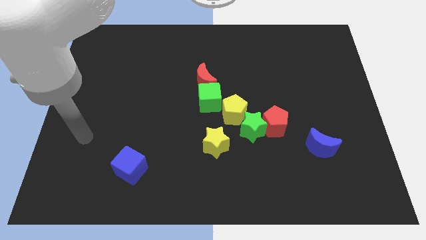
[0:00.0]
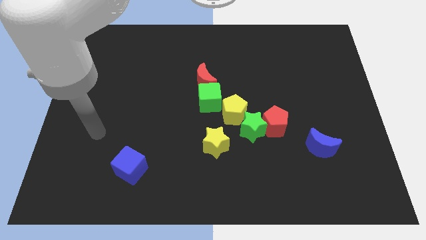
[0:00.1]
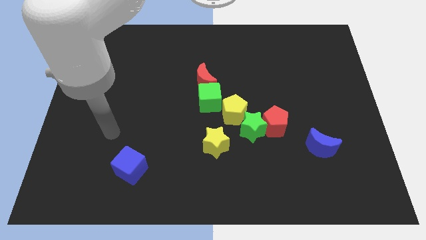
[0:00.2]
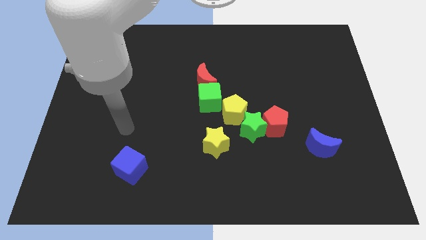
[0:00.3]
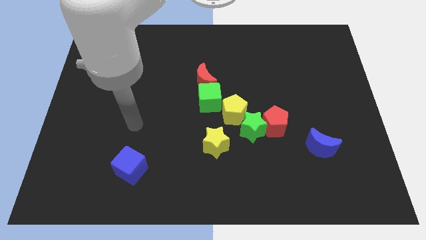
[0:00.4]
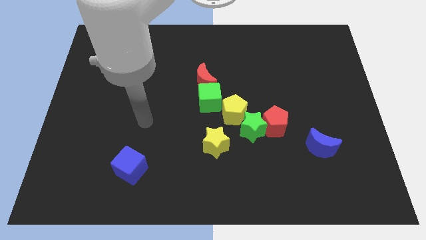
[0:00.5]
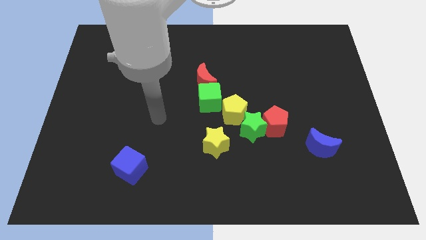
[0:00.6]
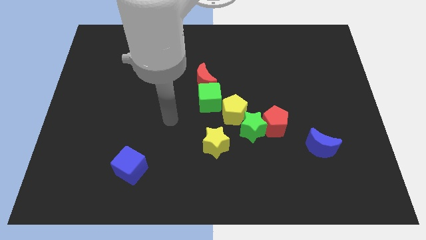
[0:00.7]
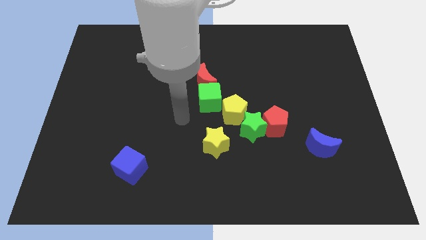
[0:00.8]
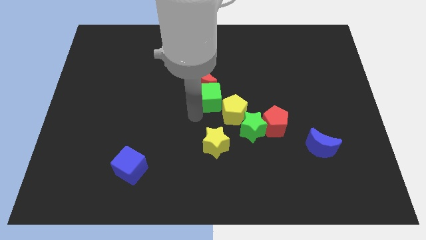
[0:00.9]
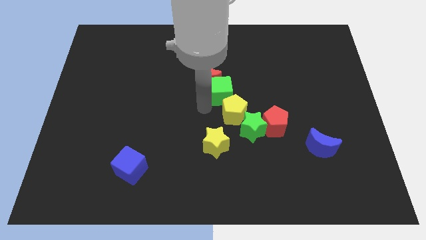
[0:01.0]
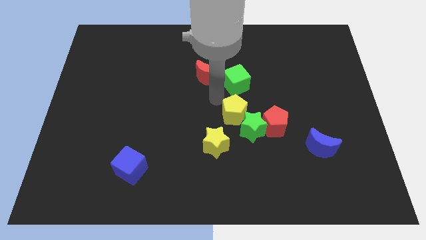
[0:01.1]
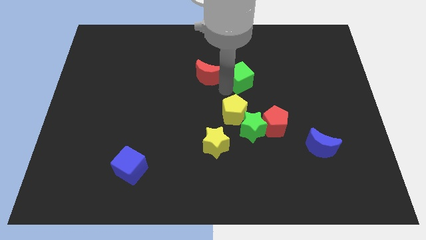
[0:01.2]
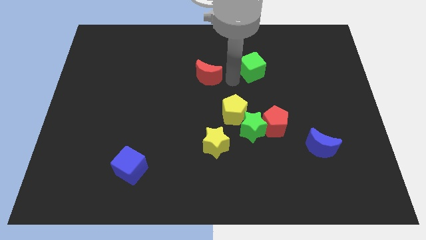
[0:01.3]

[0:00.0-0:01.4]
pull the red moon apart from the green cube

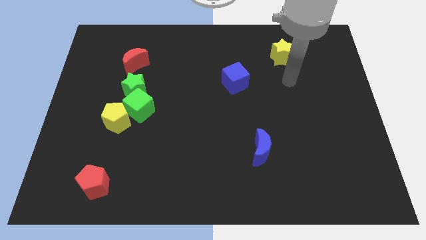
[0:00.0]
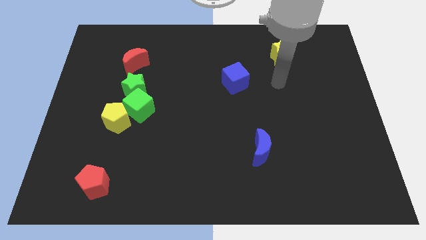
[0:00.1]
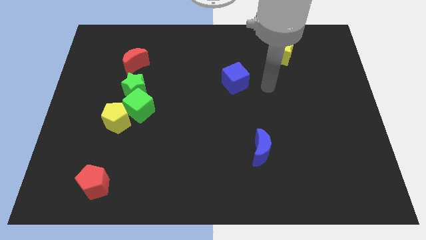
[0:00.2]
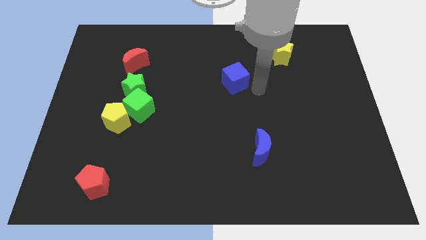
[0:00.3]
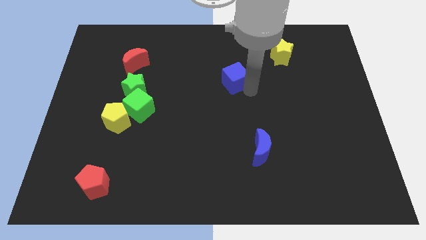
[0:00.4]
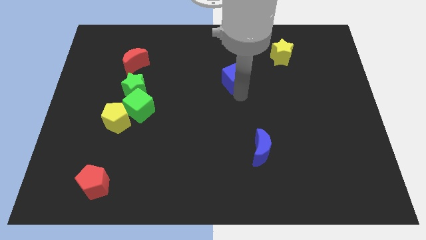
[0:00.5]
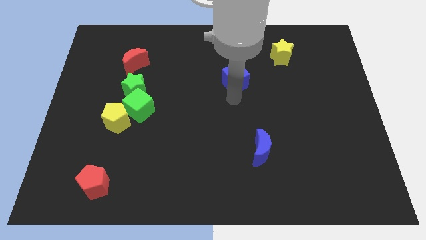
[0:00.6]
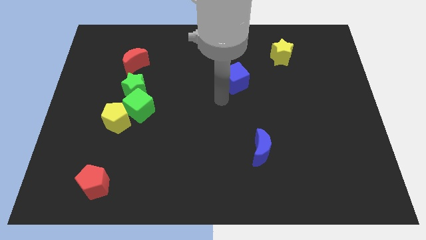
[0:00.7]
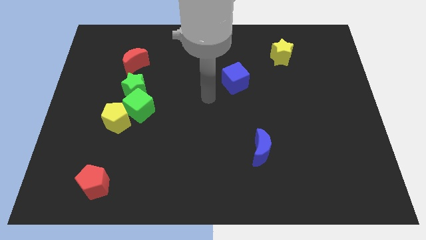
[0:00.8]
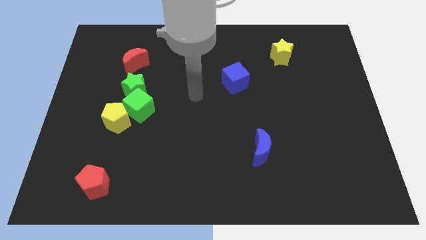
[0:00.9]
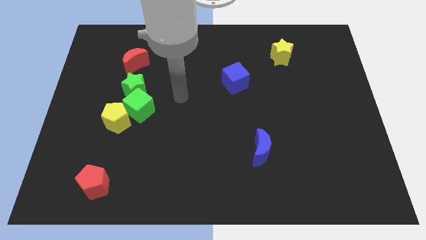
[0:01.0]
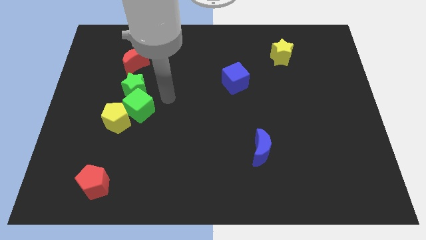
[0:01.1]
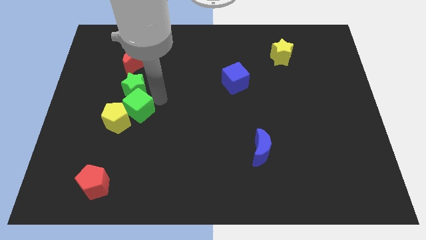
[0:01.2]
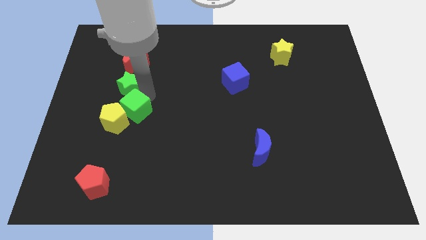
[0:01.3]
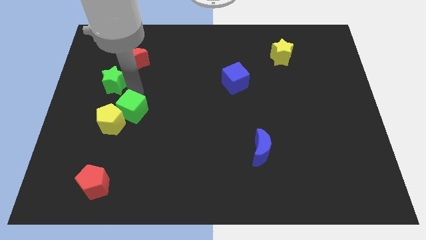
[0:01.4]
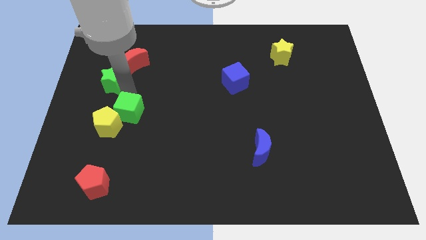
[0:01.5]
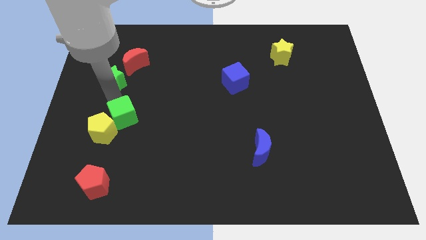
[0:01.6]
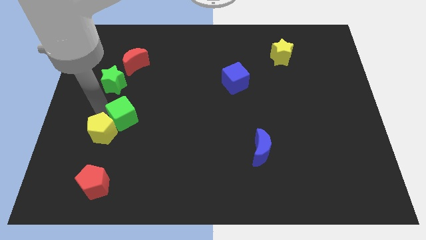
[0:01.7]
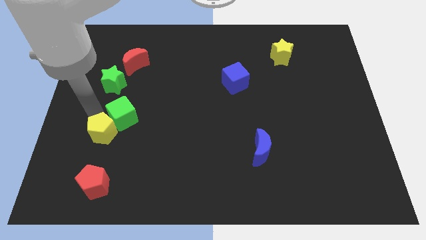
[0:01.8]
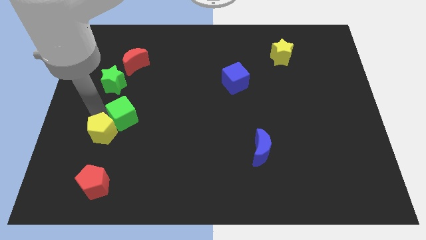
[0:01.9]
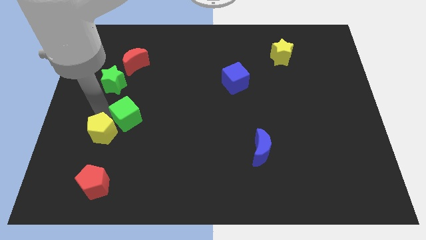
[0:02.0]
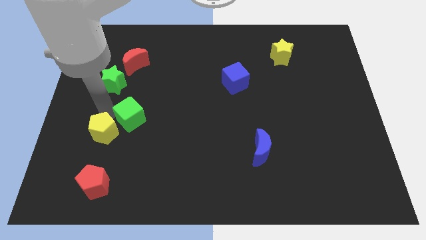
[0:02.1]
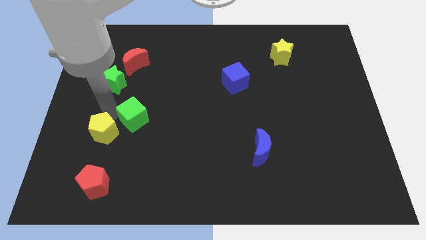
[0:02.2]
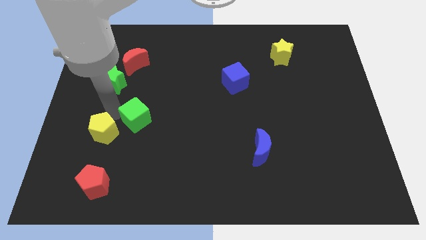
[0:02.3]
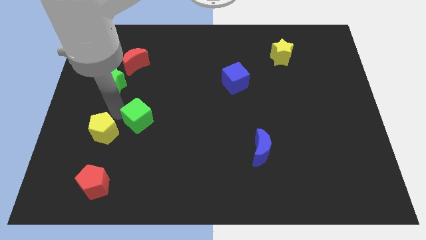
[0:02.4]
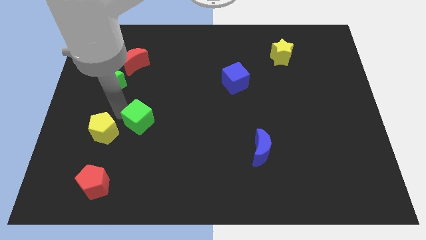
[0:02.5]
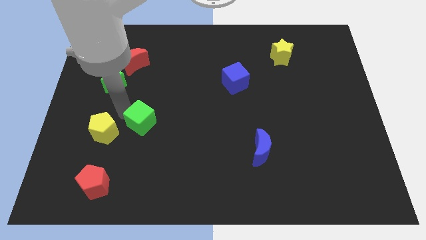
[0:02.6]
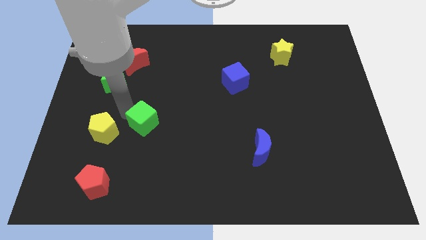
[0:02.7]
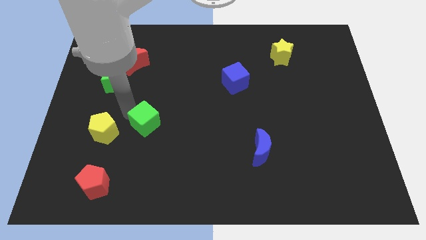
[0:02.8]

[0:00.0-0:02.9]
move the green cube away from the yellow pentagon and green star

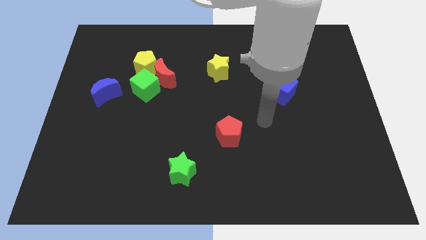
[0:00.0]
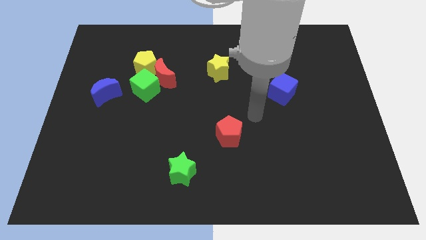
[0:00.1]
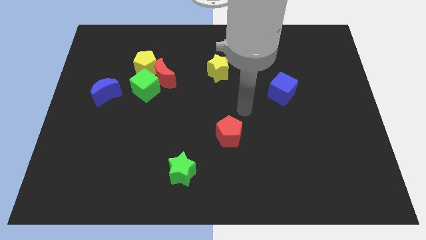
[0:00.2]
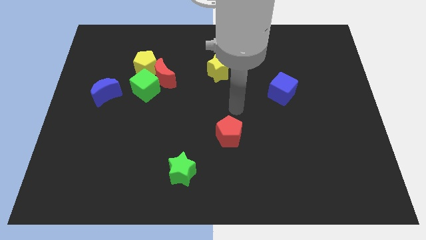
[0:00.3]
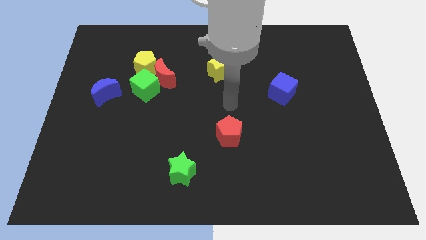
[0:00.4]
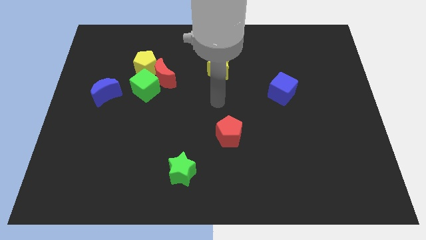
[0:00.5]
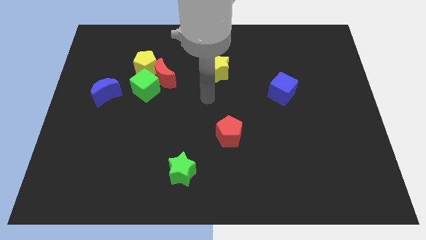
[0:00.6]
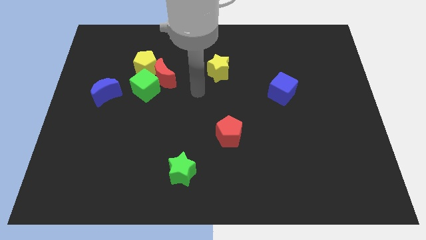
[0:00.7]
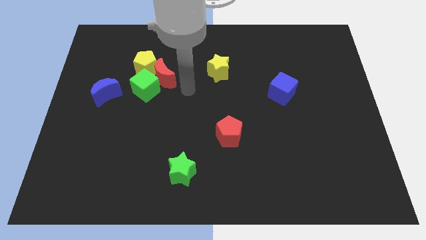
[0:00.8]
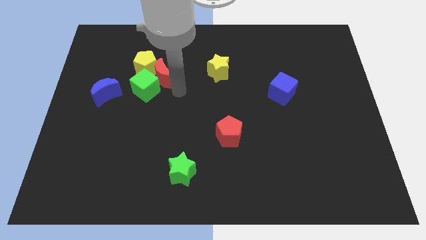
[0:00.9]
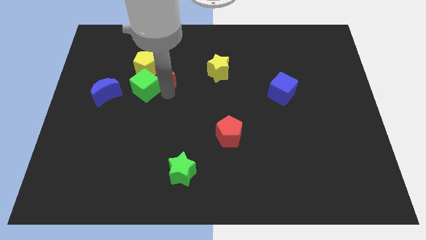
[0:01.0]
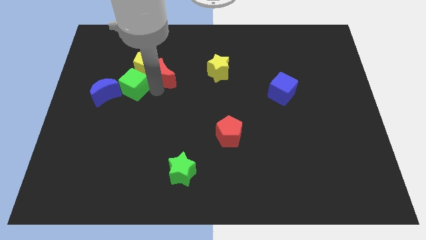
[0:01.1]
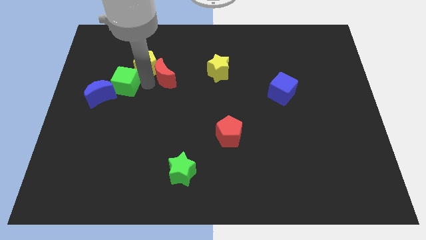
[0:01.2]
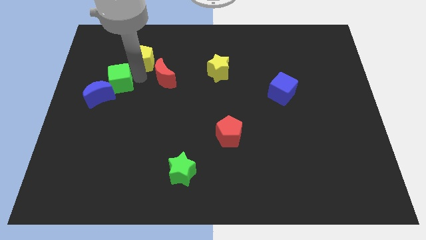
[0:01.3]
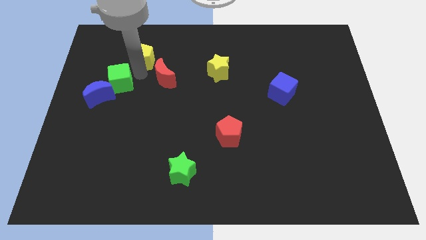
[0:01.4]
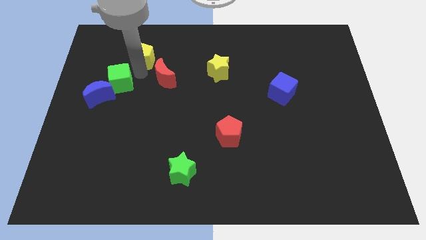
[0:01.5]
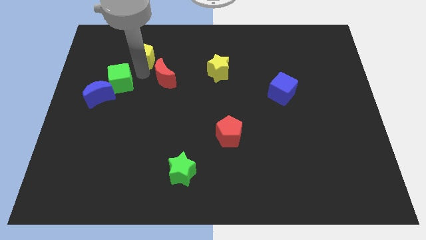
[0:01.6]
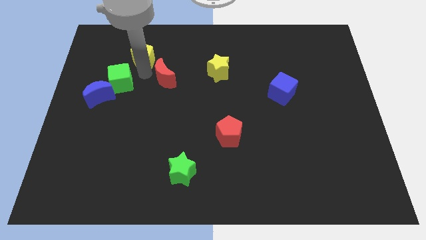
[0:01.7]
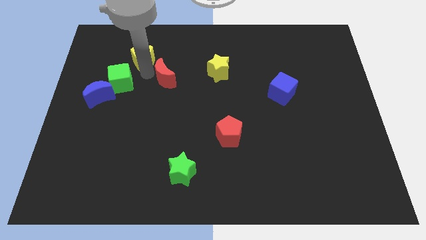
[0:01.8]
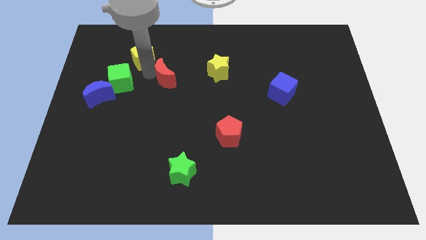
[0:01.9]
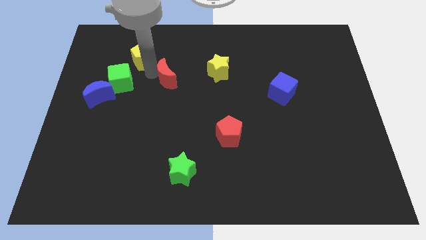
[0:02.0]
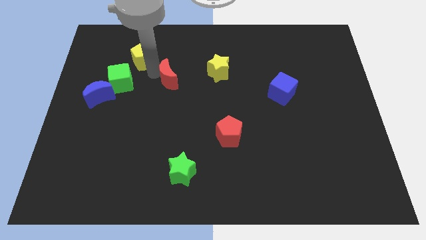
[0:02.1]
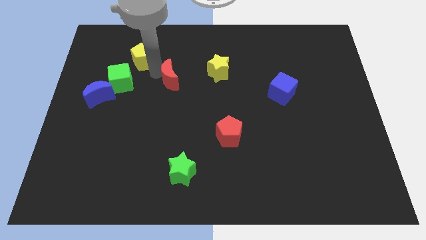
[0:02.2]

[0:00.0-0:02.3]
move the red moon away from the green cube and yellow pentagon

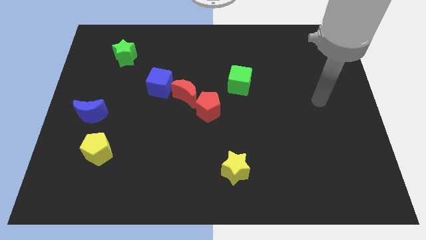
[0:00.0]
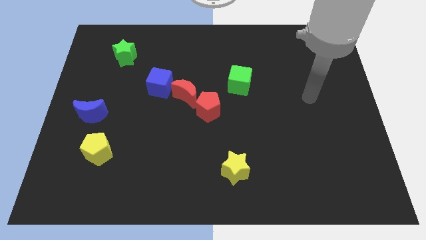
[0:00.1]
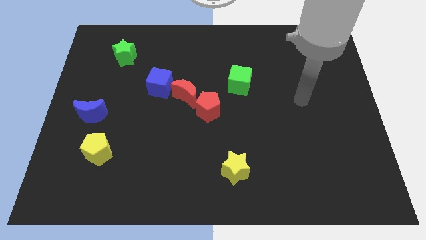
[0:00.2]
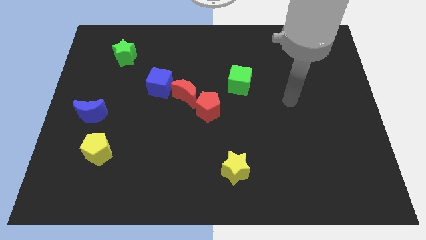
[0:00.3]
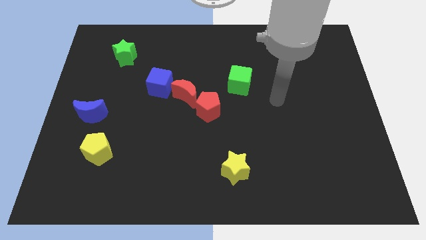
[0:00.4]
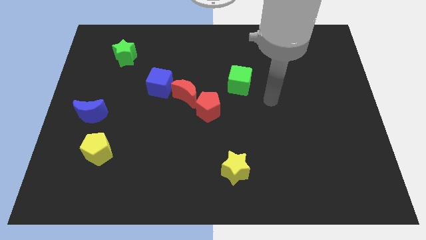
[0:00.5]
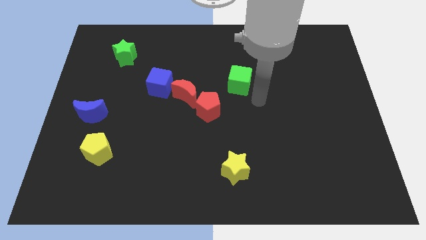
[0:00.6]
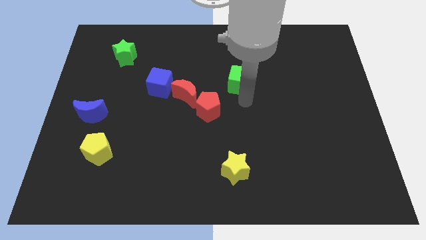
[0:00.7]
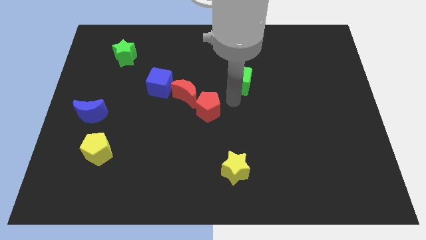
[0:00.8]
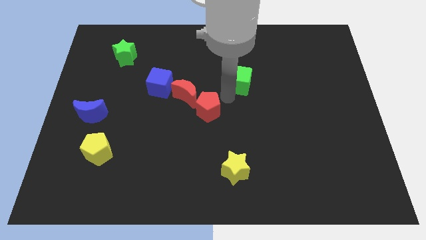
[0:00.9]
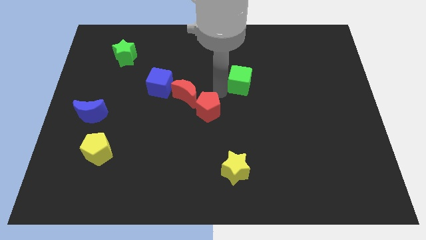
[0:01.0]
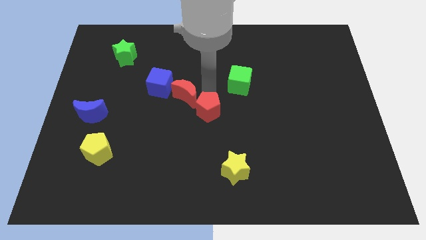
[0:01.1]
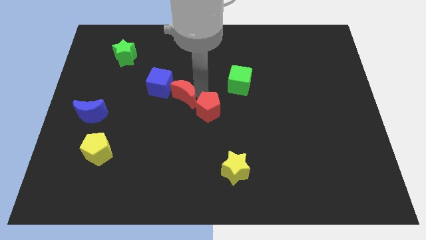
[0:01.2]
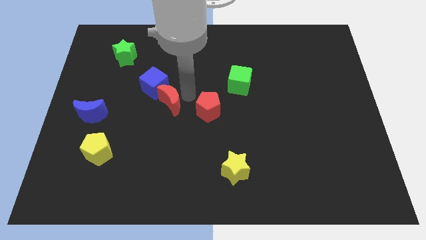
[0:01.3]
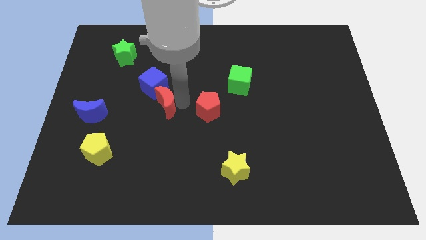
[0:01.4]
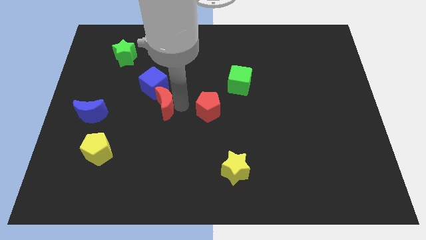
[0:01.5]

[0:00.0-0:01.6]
move the red pentagon away from the red moon

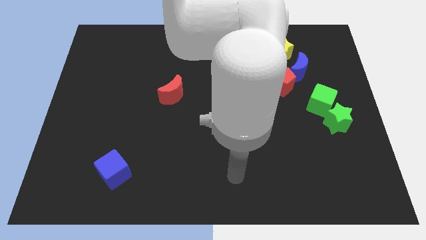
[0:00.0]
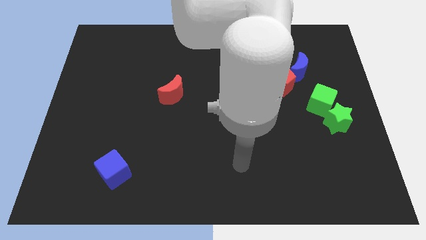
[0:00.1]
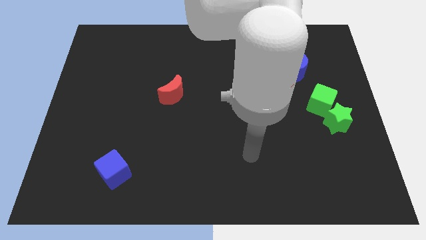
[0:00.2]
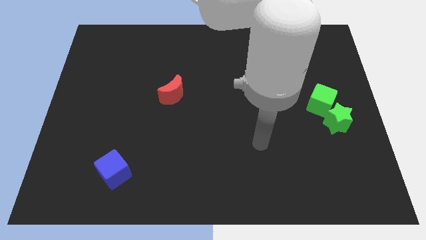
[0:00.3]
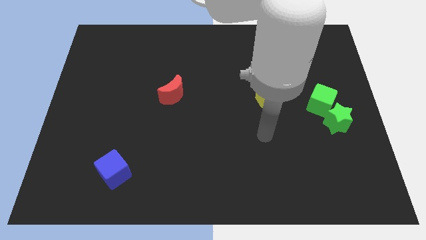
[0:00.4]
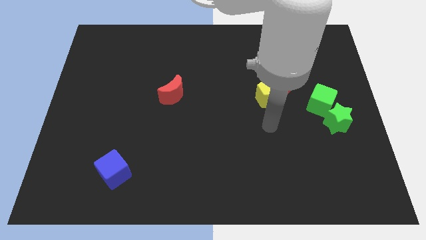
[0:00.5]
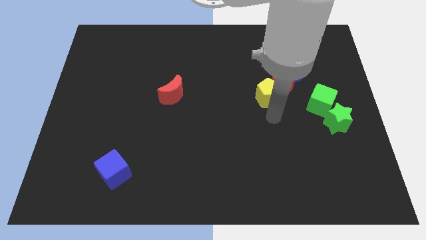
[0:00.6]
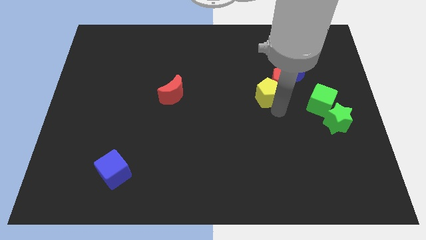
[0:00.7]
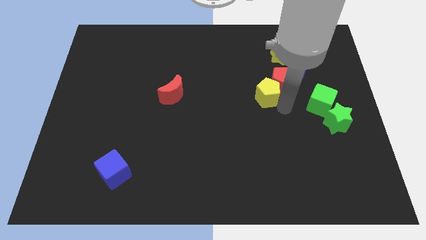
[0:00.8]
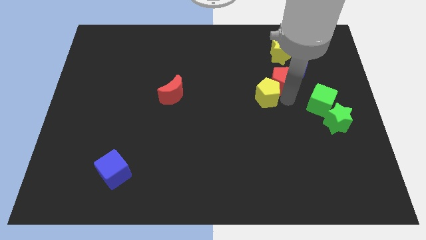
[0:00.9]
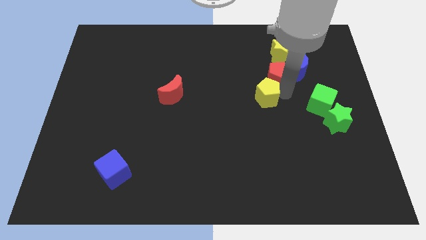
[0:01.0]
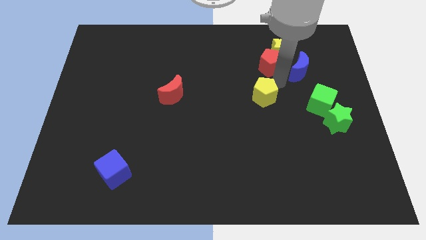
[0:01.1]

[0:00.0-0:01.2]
move the yellow pentagon away from the red pentagon
